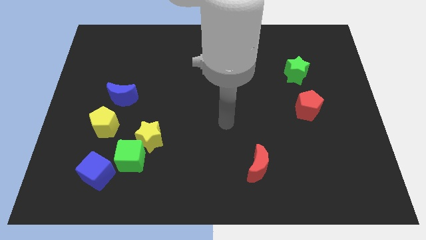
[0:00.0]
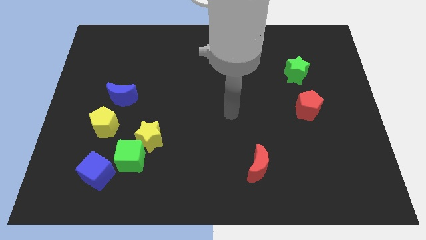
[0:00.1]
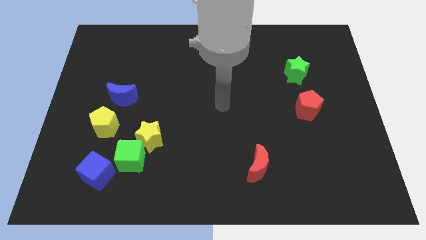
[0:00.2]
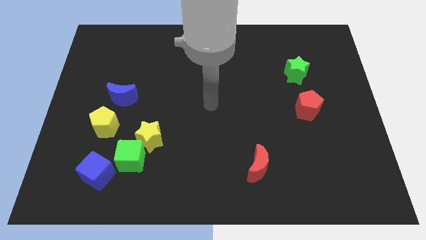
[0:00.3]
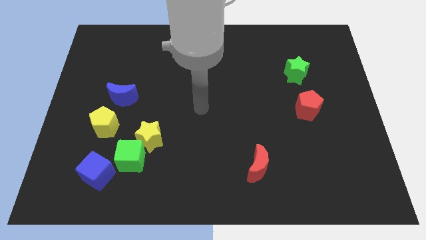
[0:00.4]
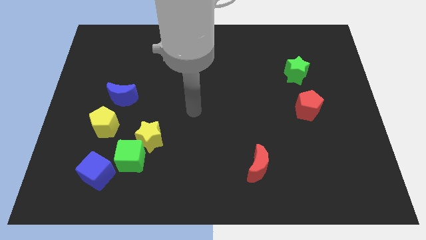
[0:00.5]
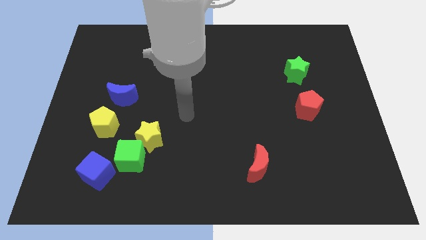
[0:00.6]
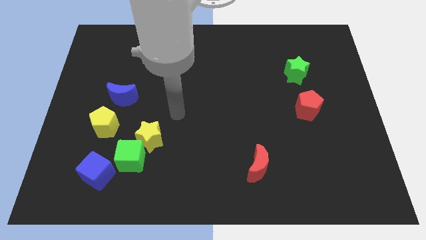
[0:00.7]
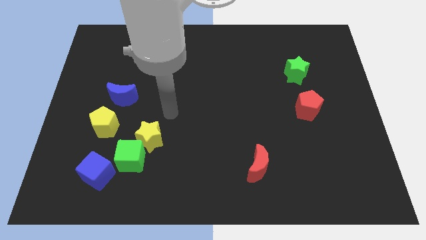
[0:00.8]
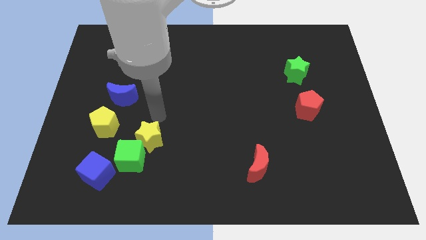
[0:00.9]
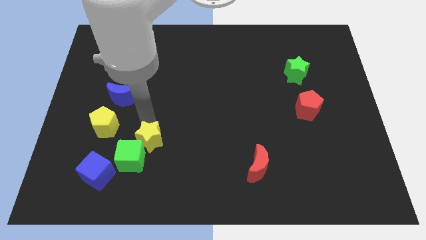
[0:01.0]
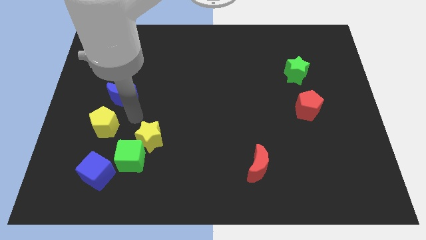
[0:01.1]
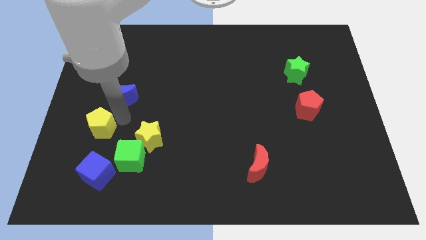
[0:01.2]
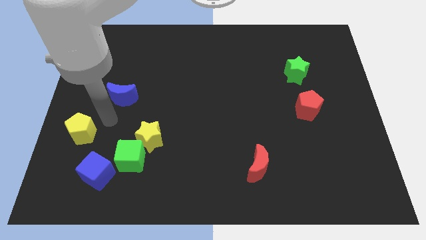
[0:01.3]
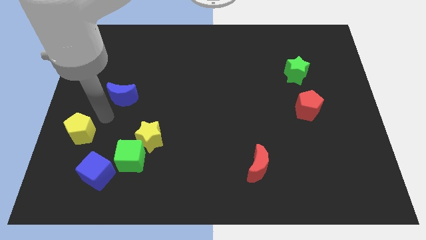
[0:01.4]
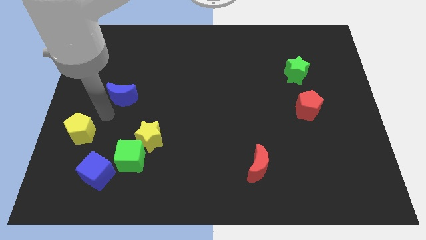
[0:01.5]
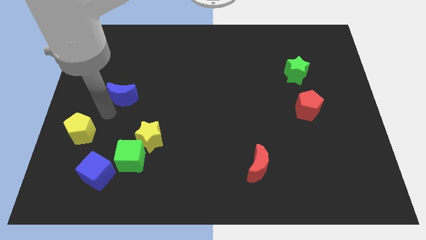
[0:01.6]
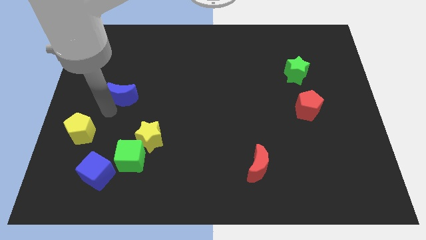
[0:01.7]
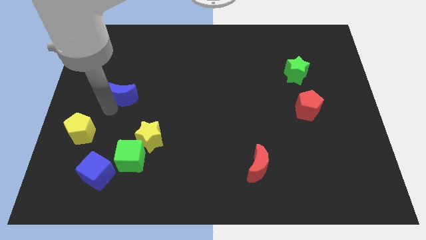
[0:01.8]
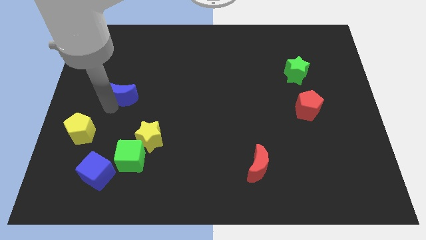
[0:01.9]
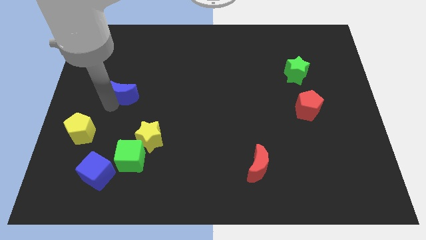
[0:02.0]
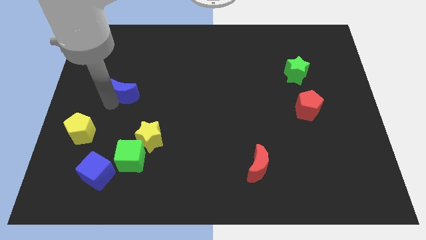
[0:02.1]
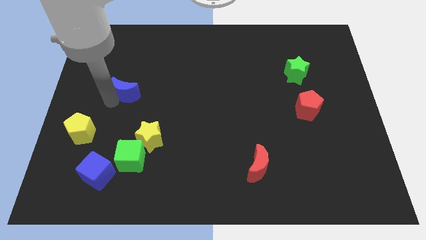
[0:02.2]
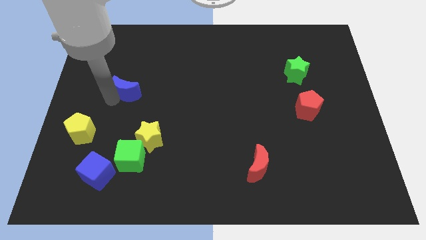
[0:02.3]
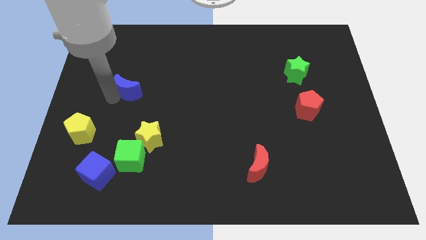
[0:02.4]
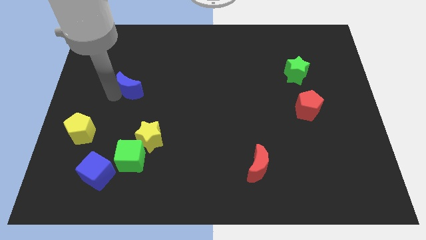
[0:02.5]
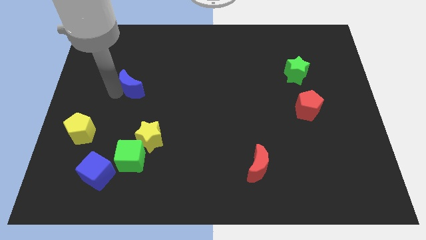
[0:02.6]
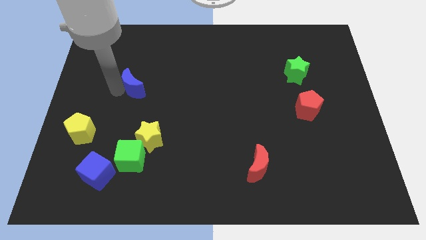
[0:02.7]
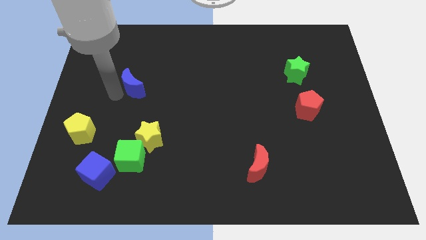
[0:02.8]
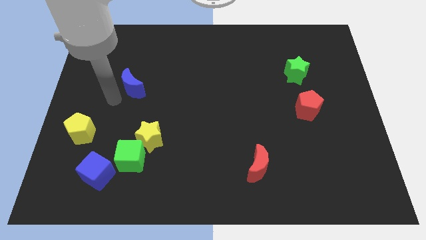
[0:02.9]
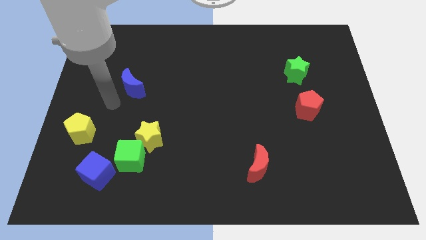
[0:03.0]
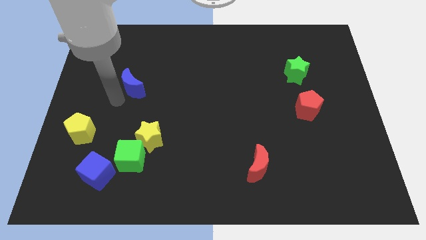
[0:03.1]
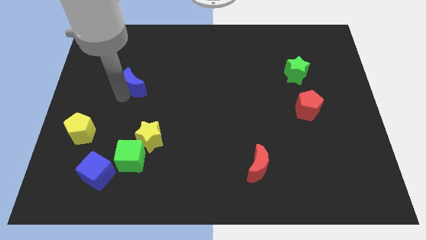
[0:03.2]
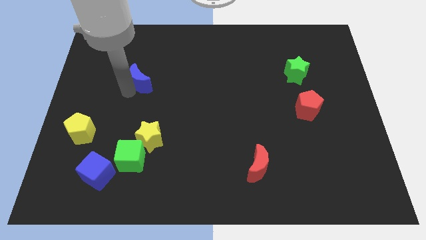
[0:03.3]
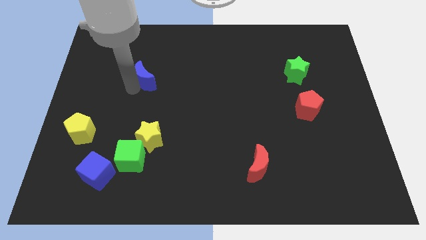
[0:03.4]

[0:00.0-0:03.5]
push the blue moon somewhat diagonally upwards and right

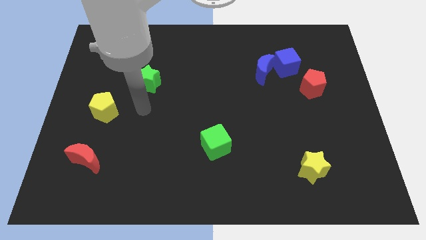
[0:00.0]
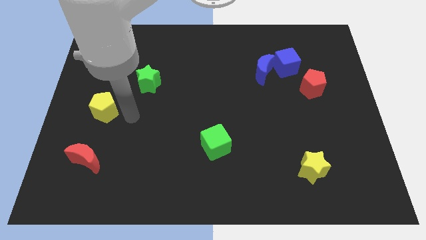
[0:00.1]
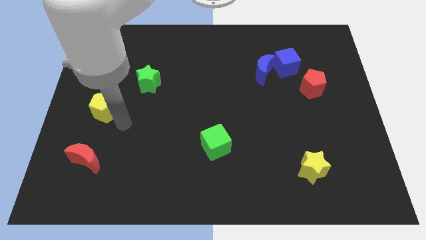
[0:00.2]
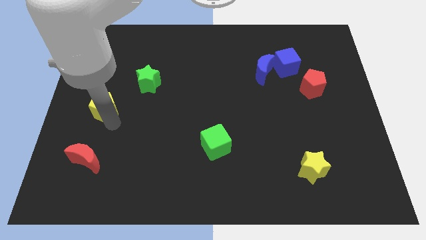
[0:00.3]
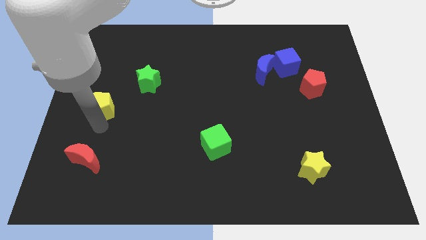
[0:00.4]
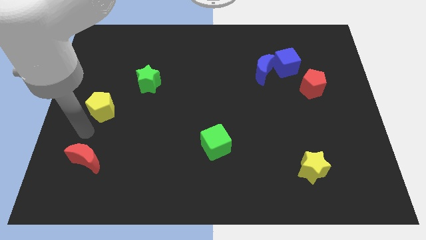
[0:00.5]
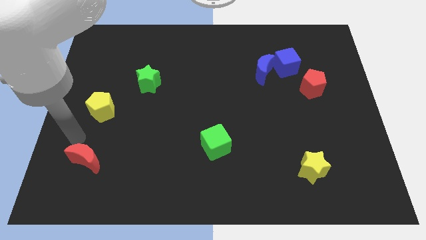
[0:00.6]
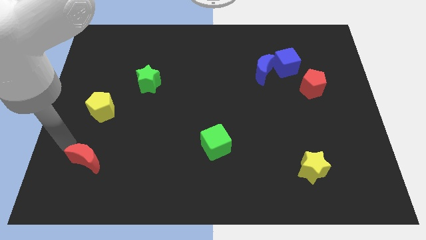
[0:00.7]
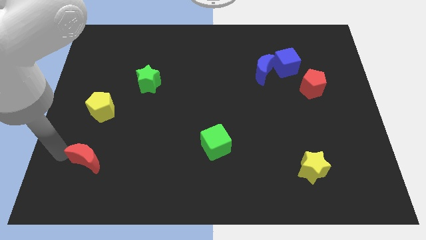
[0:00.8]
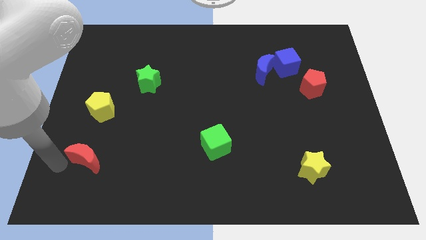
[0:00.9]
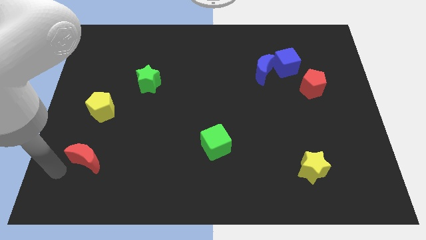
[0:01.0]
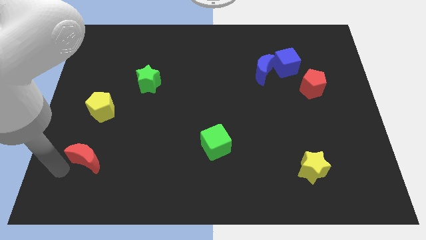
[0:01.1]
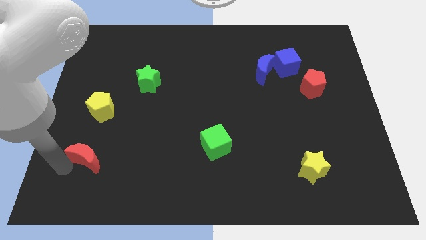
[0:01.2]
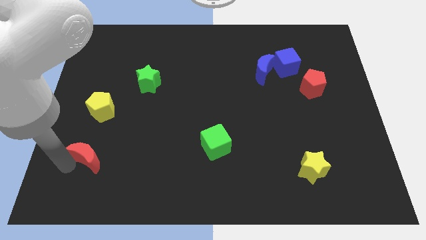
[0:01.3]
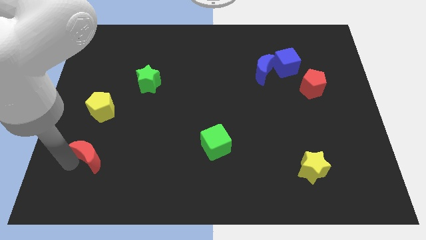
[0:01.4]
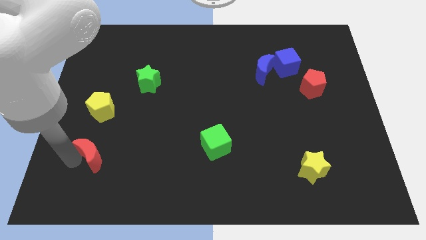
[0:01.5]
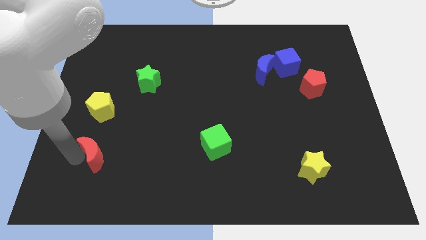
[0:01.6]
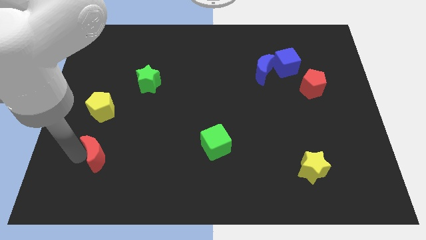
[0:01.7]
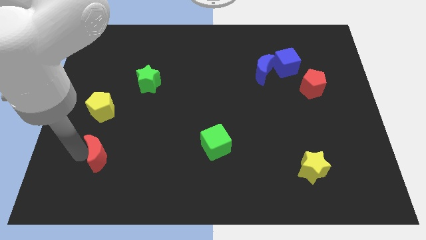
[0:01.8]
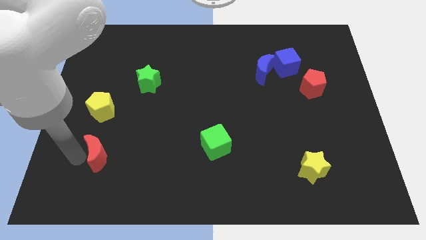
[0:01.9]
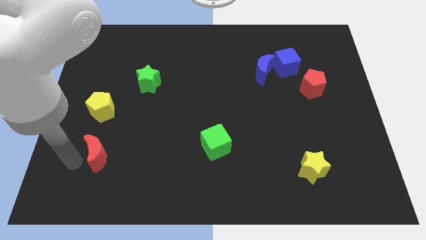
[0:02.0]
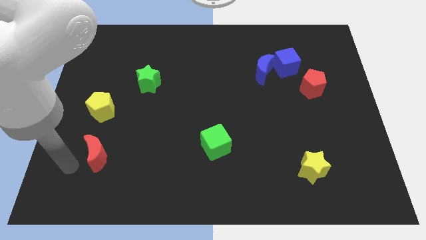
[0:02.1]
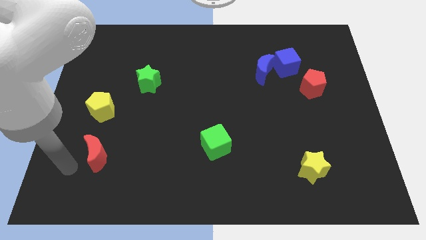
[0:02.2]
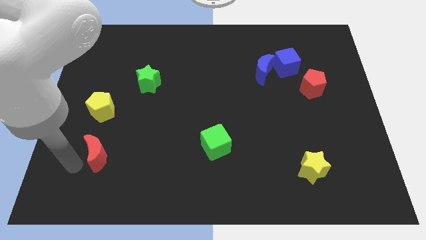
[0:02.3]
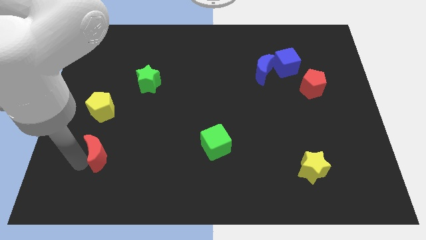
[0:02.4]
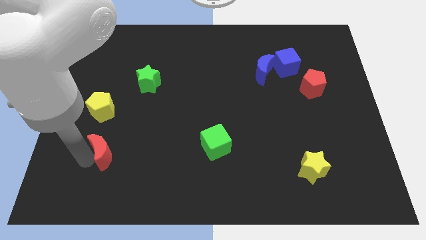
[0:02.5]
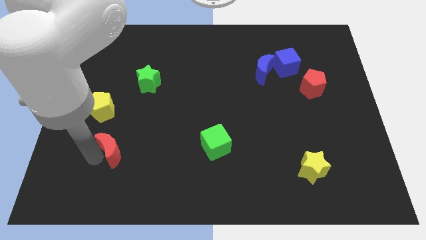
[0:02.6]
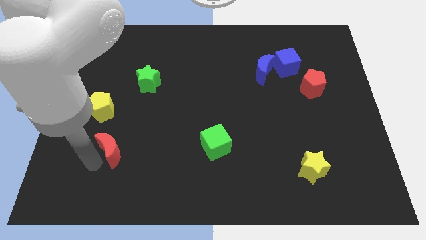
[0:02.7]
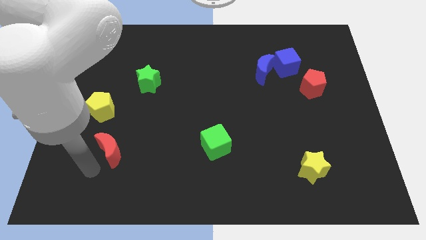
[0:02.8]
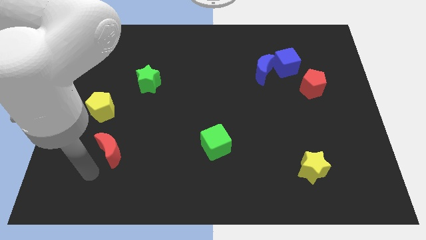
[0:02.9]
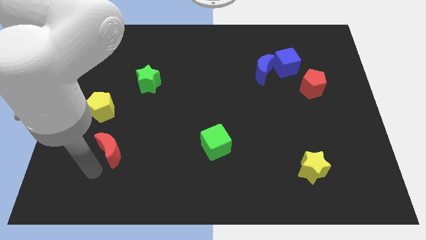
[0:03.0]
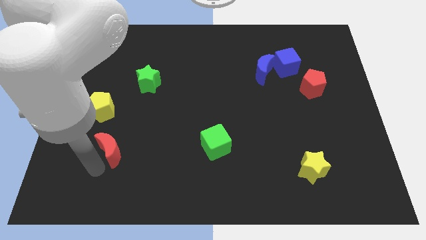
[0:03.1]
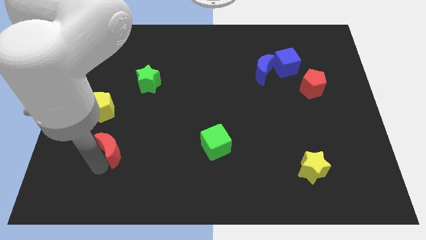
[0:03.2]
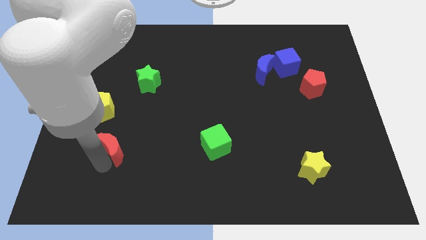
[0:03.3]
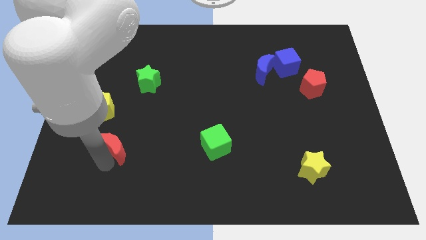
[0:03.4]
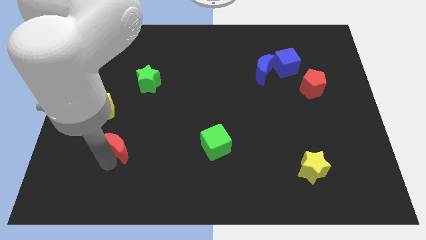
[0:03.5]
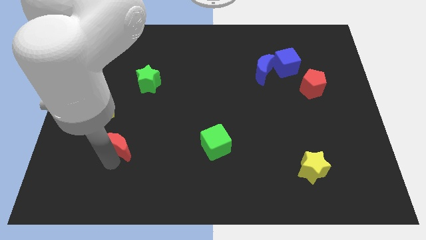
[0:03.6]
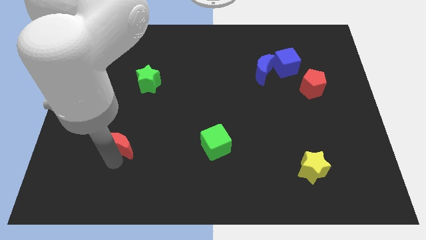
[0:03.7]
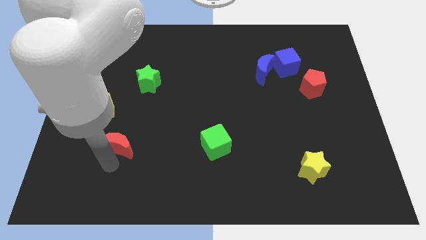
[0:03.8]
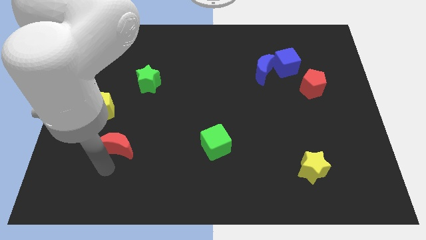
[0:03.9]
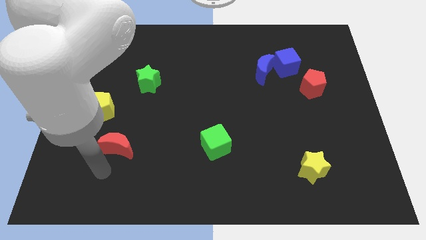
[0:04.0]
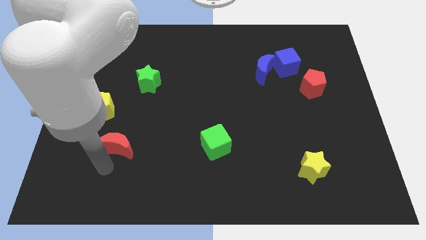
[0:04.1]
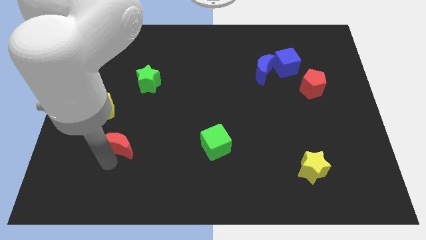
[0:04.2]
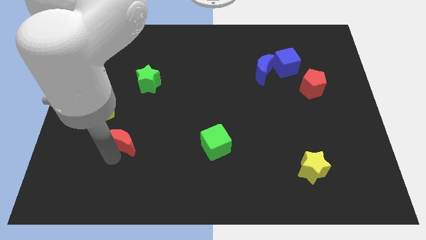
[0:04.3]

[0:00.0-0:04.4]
slide the red moon a little bit upwards and then right
